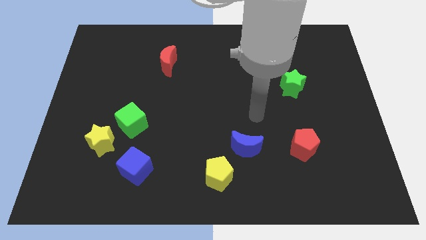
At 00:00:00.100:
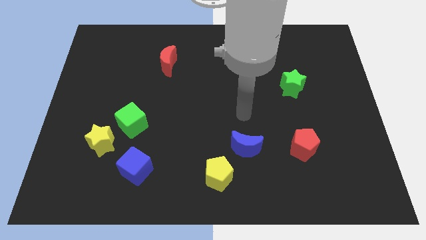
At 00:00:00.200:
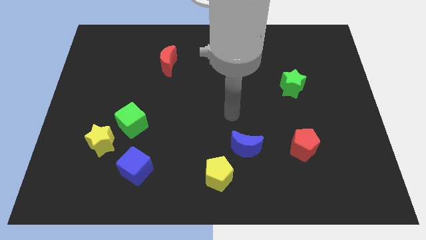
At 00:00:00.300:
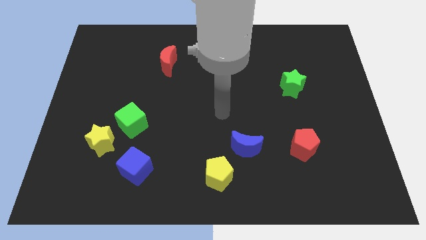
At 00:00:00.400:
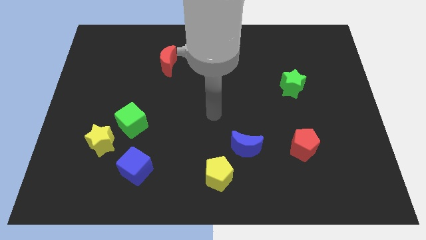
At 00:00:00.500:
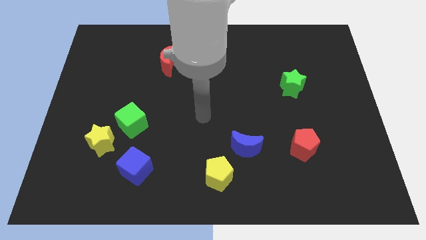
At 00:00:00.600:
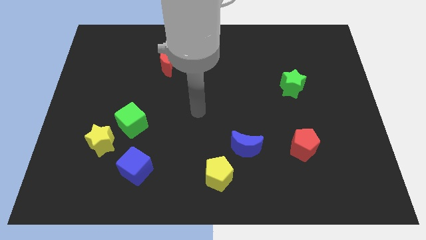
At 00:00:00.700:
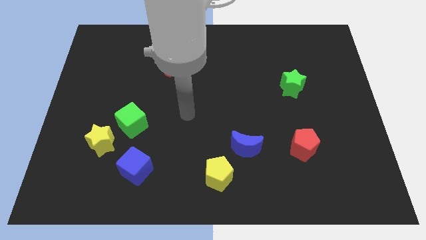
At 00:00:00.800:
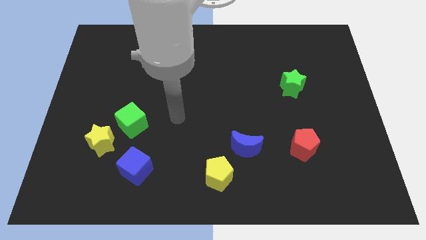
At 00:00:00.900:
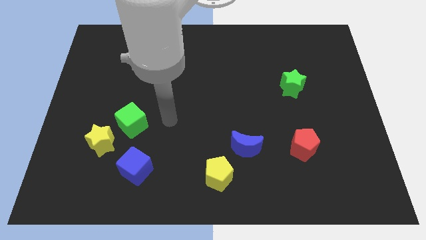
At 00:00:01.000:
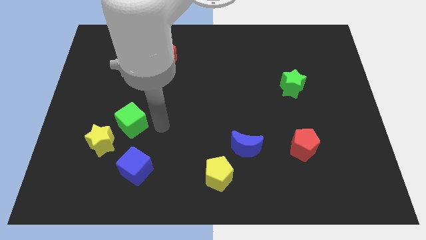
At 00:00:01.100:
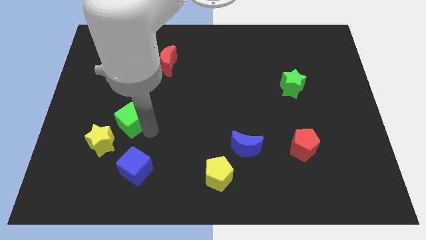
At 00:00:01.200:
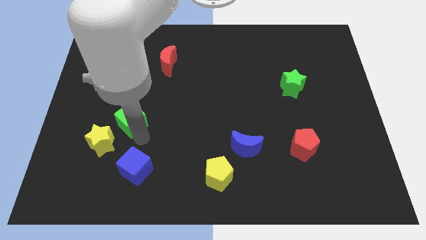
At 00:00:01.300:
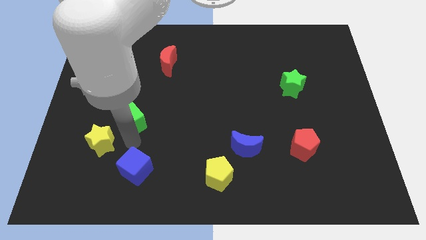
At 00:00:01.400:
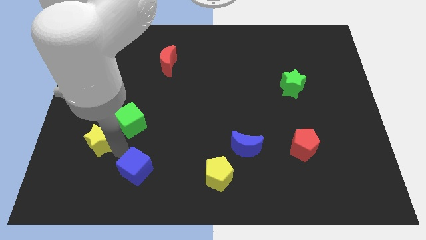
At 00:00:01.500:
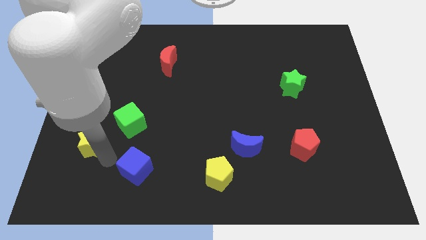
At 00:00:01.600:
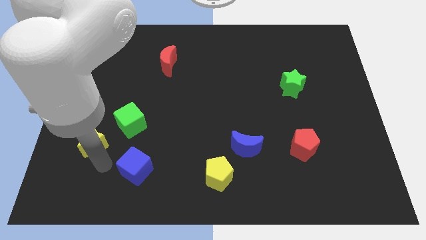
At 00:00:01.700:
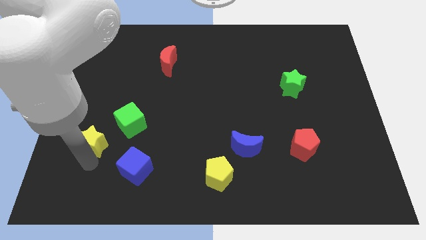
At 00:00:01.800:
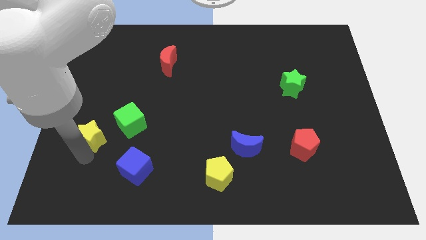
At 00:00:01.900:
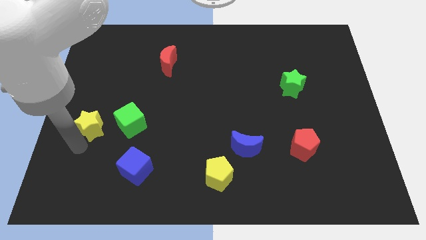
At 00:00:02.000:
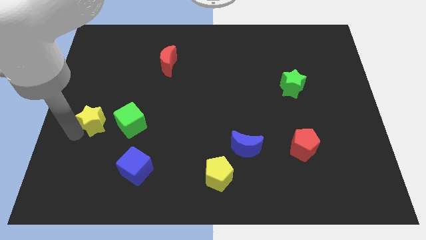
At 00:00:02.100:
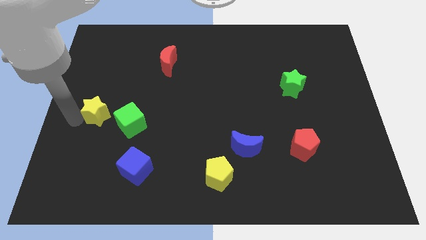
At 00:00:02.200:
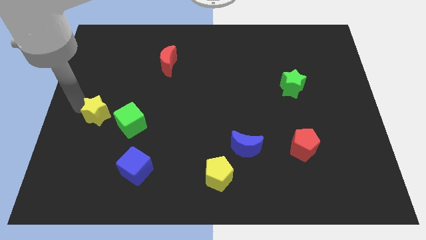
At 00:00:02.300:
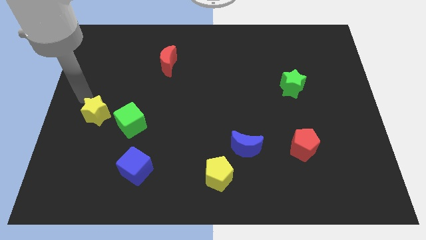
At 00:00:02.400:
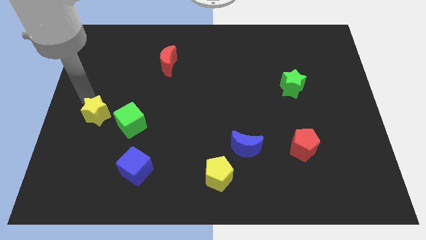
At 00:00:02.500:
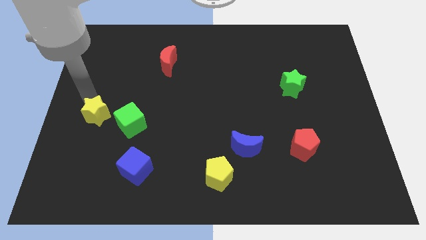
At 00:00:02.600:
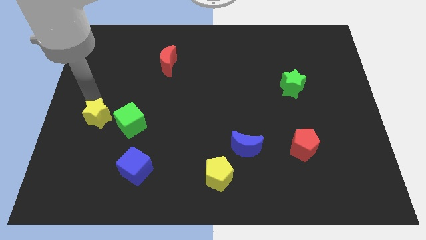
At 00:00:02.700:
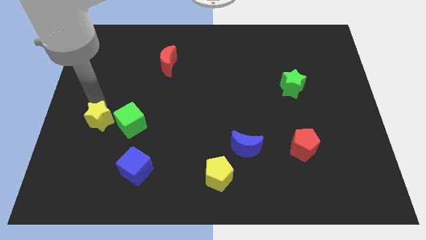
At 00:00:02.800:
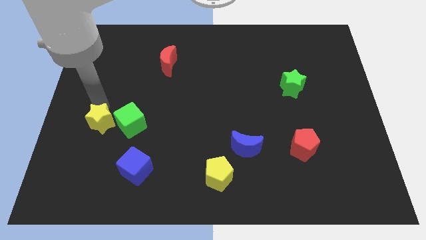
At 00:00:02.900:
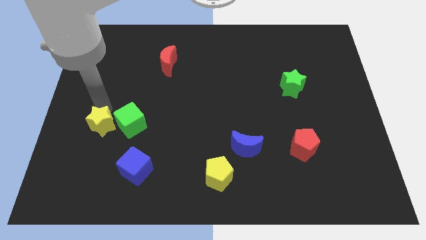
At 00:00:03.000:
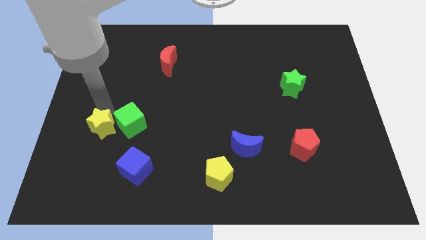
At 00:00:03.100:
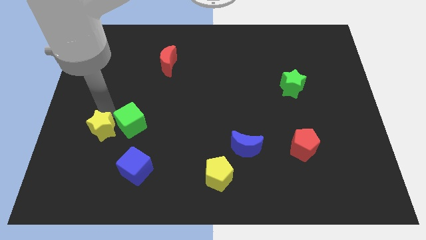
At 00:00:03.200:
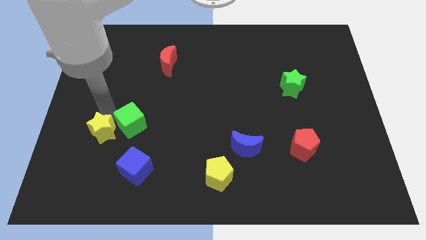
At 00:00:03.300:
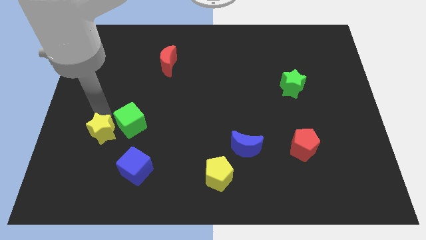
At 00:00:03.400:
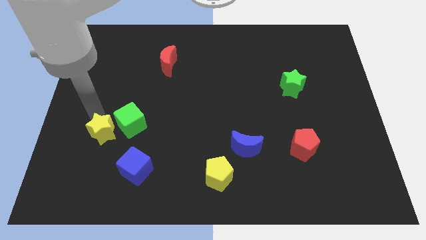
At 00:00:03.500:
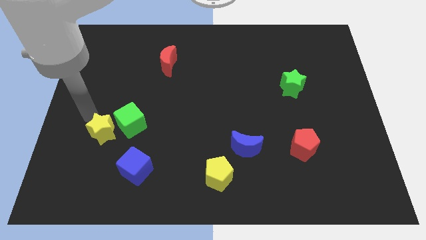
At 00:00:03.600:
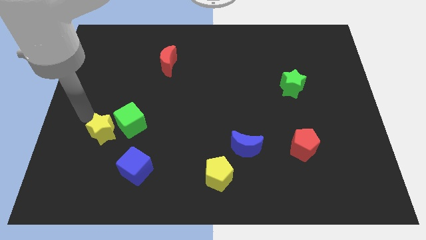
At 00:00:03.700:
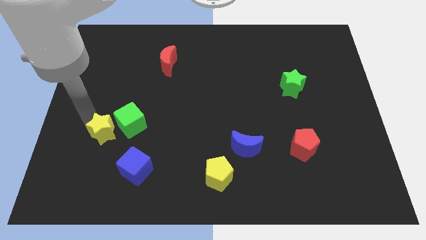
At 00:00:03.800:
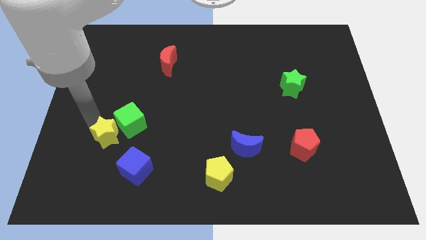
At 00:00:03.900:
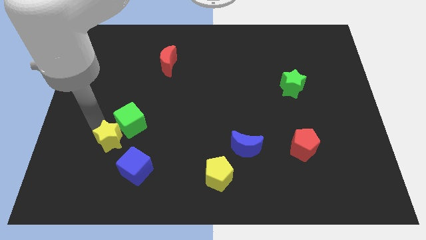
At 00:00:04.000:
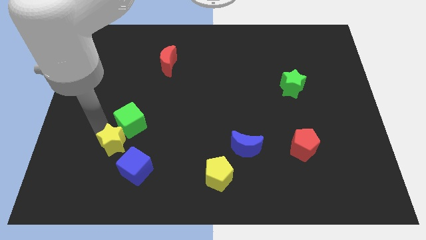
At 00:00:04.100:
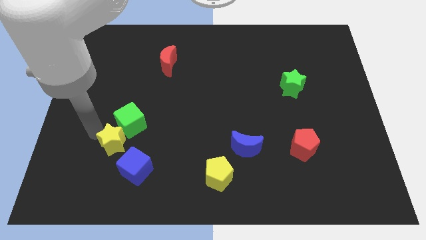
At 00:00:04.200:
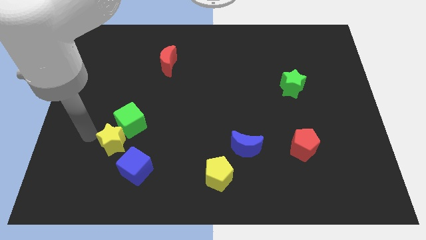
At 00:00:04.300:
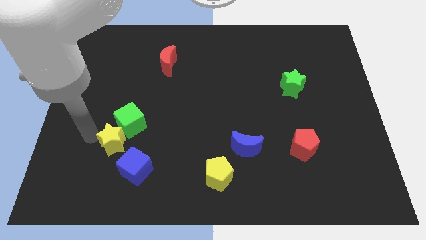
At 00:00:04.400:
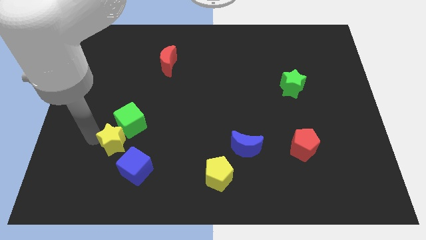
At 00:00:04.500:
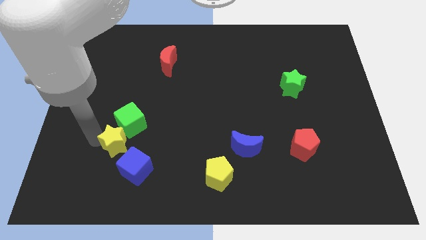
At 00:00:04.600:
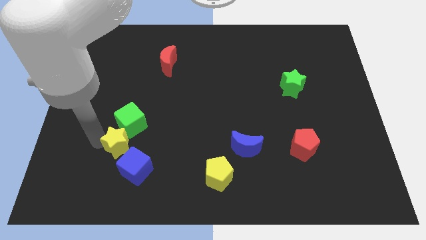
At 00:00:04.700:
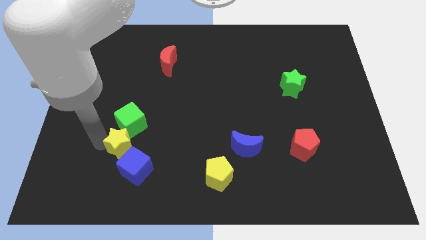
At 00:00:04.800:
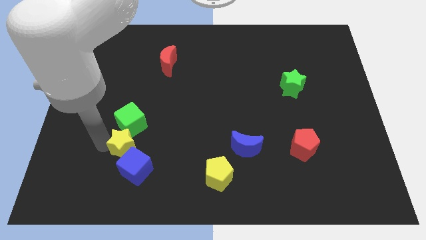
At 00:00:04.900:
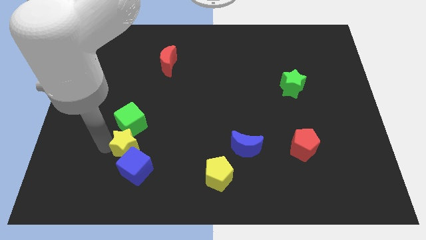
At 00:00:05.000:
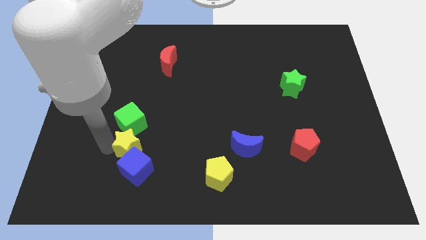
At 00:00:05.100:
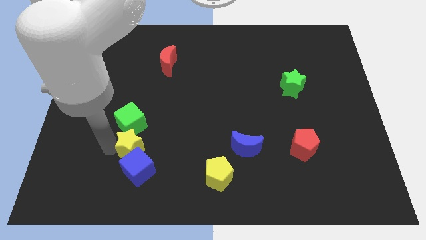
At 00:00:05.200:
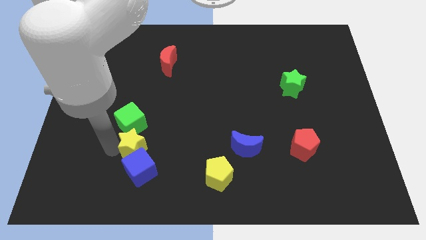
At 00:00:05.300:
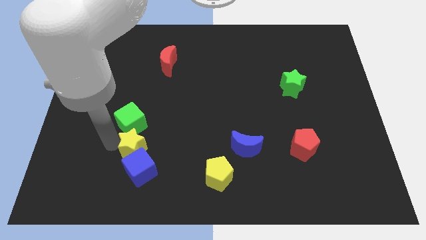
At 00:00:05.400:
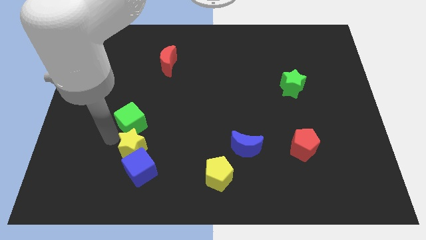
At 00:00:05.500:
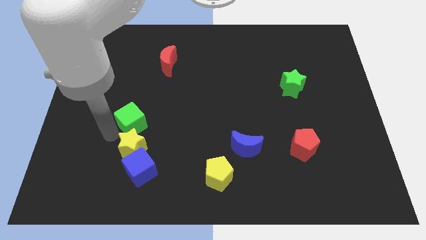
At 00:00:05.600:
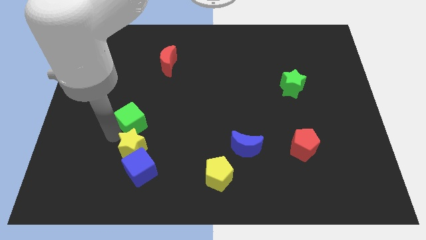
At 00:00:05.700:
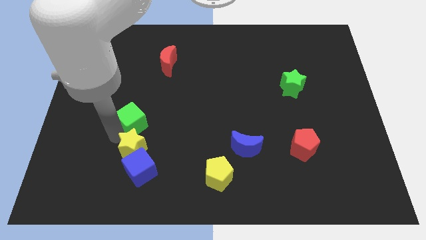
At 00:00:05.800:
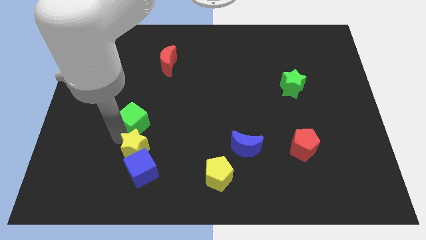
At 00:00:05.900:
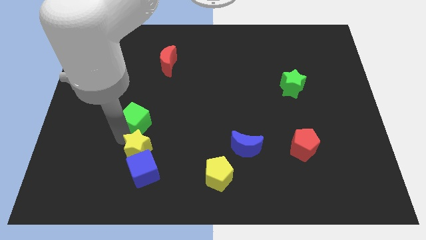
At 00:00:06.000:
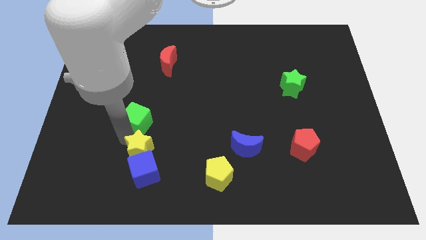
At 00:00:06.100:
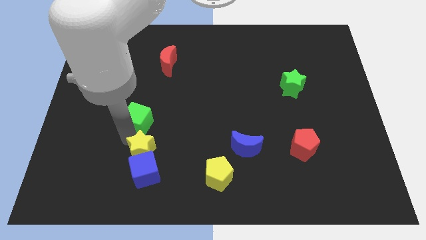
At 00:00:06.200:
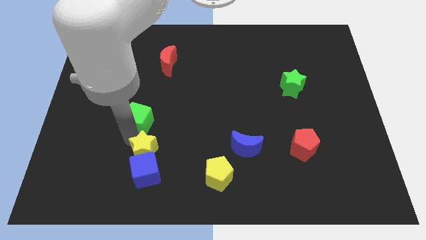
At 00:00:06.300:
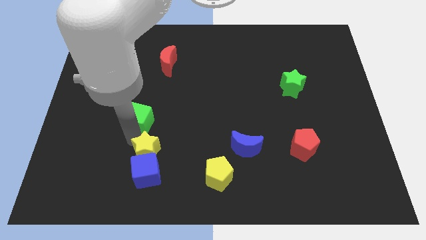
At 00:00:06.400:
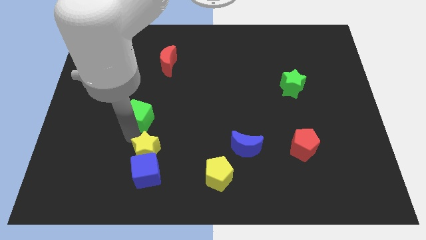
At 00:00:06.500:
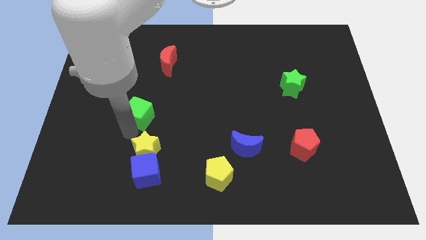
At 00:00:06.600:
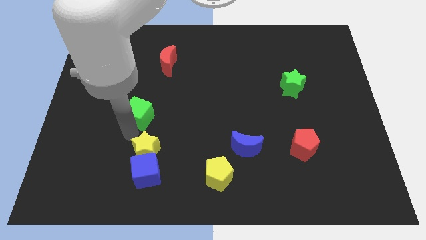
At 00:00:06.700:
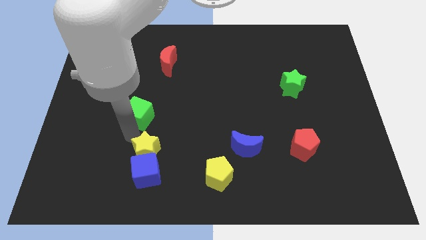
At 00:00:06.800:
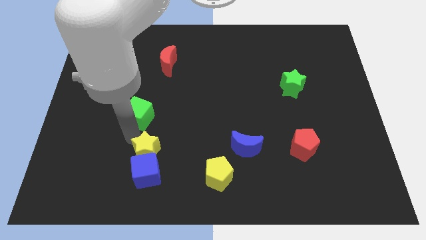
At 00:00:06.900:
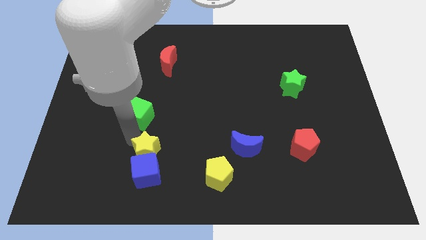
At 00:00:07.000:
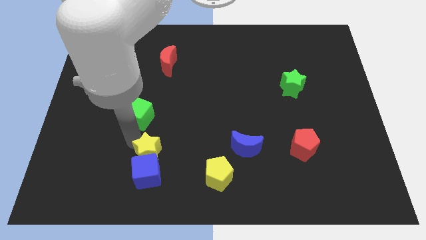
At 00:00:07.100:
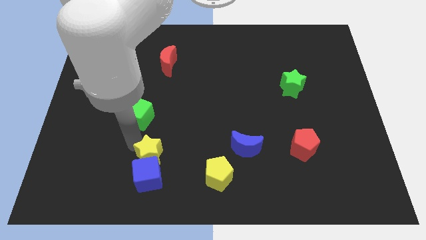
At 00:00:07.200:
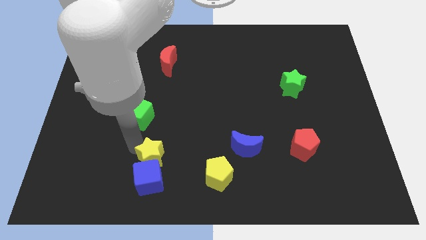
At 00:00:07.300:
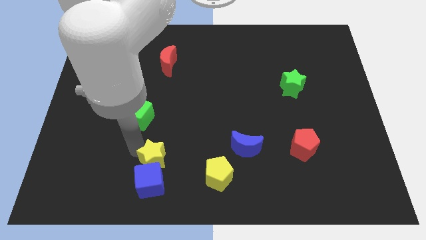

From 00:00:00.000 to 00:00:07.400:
put the yellow star to the left of the yellow pentagon
